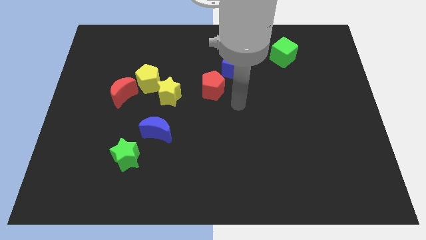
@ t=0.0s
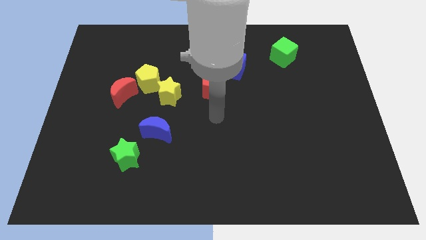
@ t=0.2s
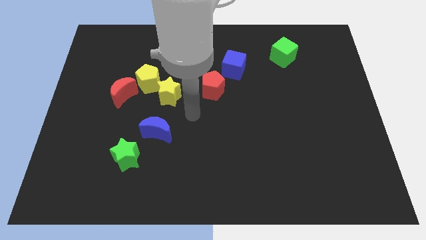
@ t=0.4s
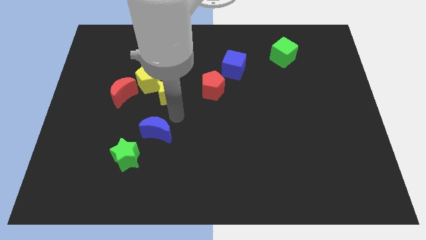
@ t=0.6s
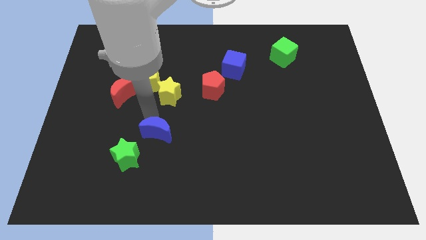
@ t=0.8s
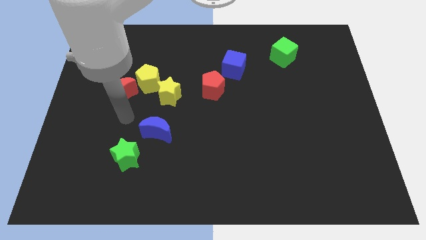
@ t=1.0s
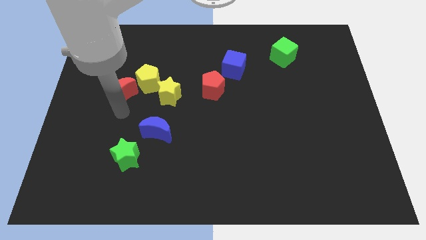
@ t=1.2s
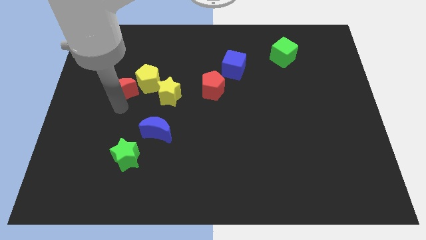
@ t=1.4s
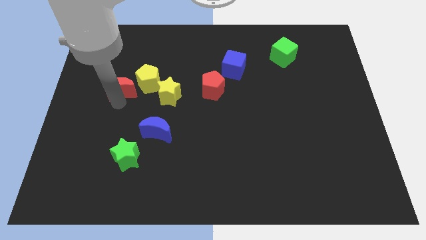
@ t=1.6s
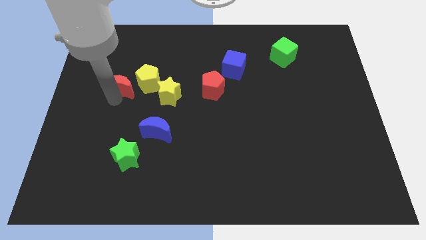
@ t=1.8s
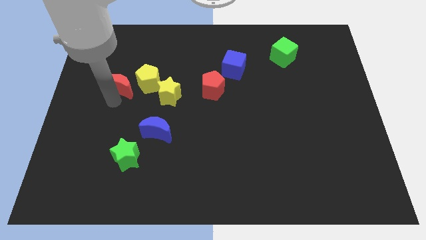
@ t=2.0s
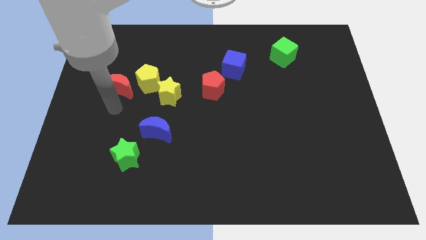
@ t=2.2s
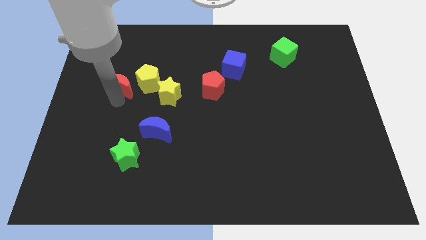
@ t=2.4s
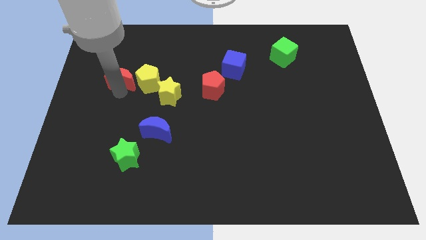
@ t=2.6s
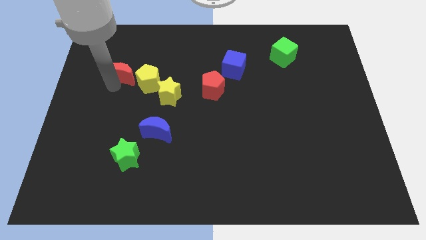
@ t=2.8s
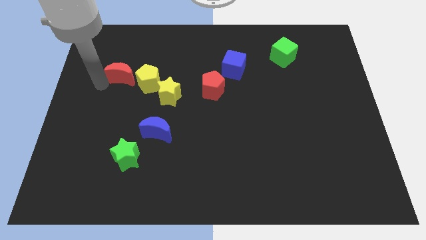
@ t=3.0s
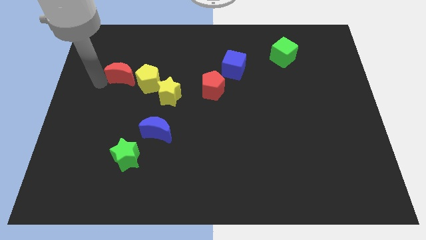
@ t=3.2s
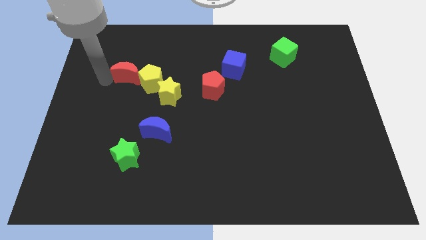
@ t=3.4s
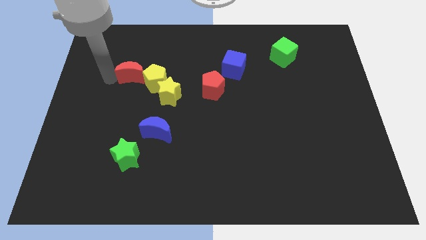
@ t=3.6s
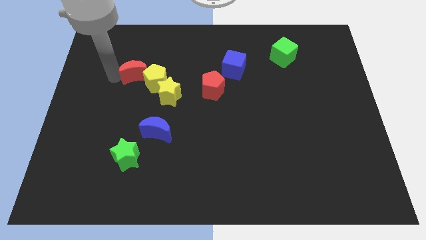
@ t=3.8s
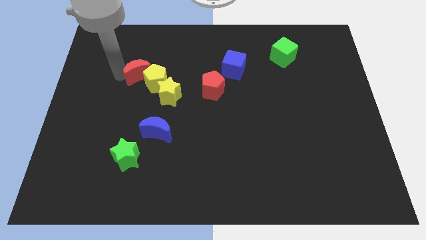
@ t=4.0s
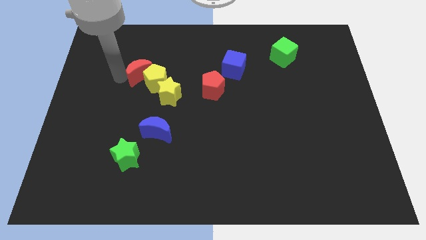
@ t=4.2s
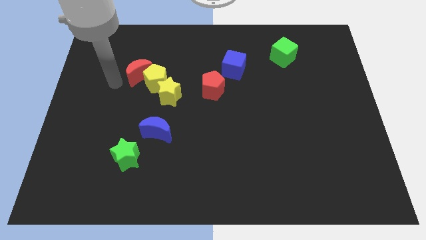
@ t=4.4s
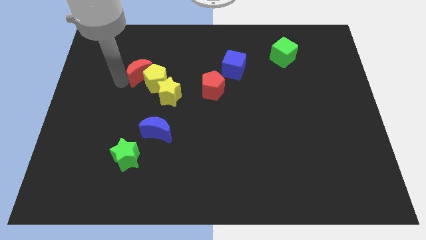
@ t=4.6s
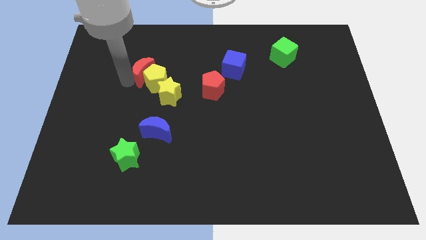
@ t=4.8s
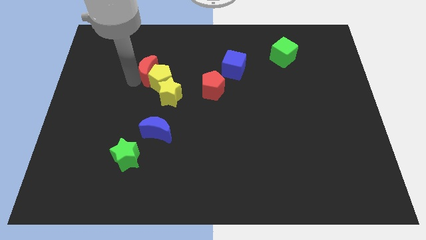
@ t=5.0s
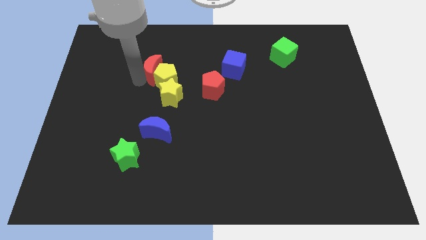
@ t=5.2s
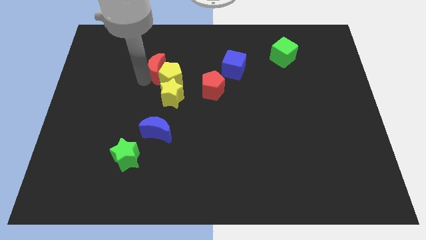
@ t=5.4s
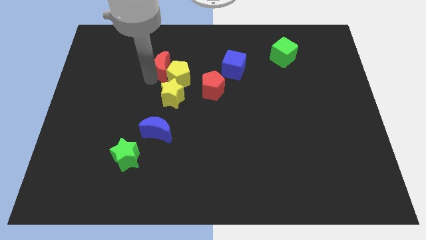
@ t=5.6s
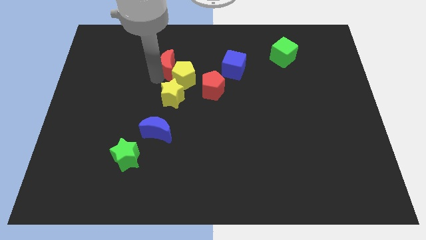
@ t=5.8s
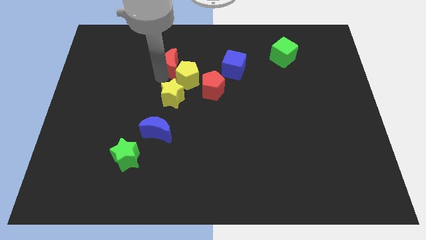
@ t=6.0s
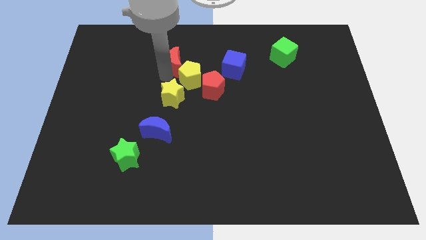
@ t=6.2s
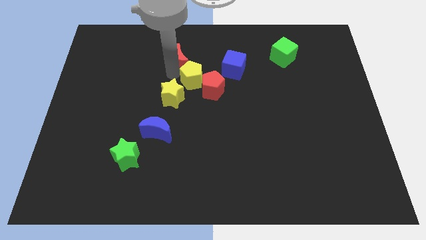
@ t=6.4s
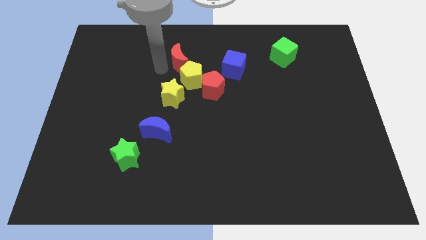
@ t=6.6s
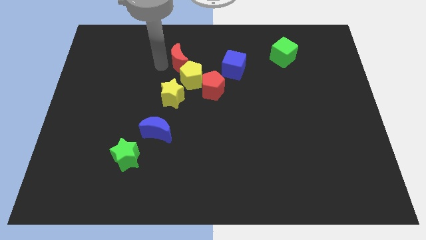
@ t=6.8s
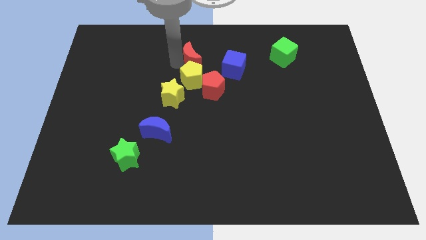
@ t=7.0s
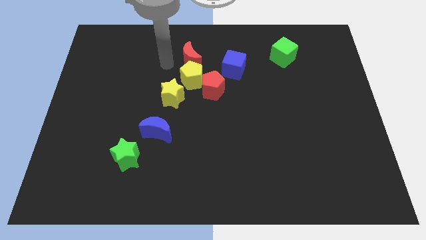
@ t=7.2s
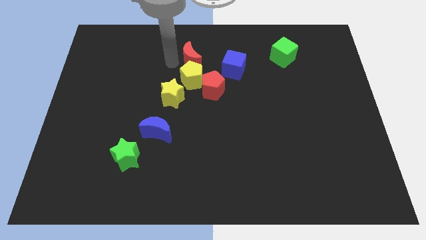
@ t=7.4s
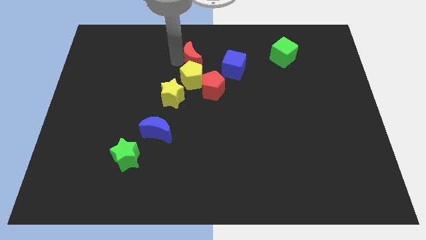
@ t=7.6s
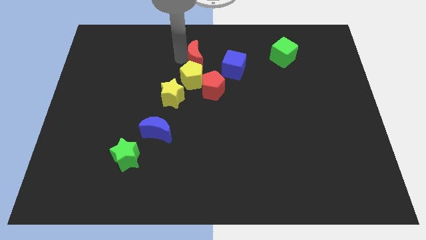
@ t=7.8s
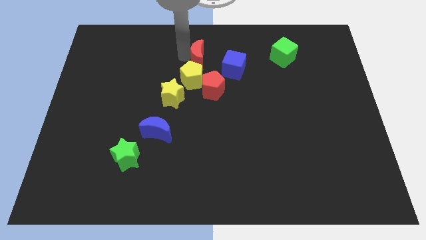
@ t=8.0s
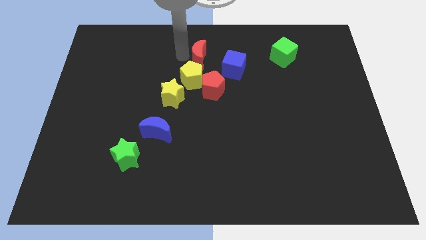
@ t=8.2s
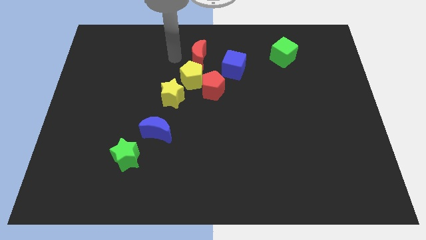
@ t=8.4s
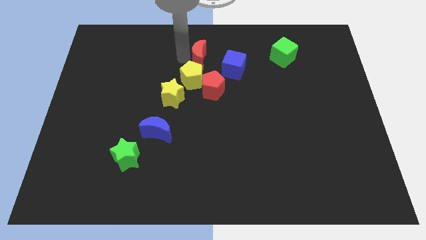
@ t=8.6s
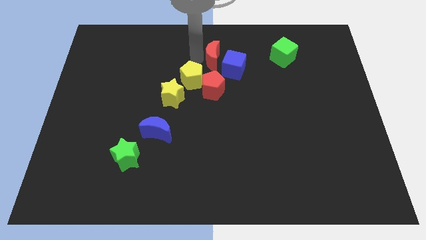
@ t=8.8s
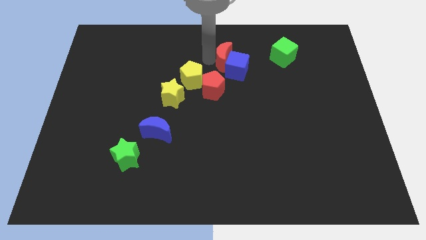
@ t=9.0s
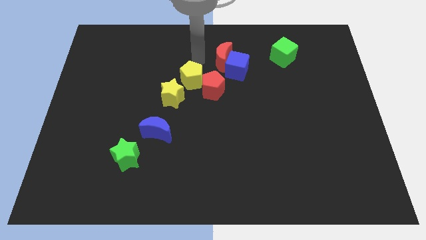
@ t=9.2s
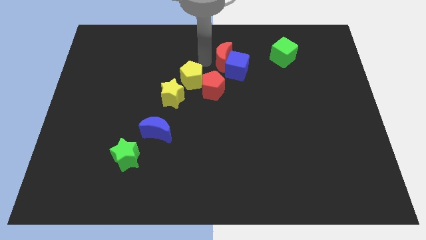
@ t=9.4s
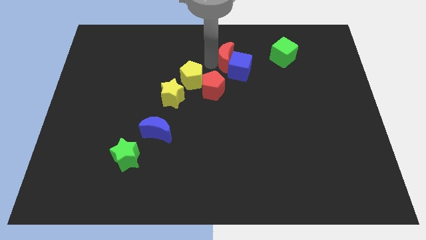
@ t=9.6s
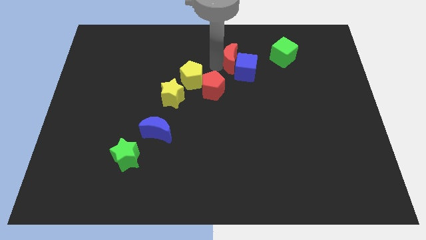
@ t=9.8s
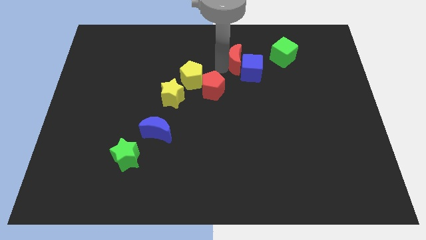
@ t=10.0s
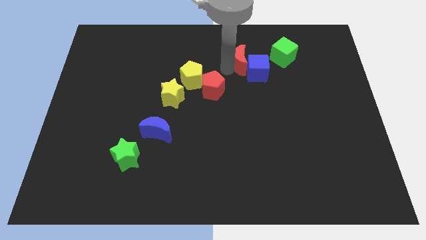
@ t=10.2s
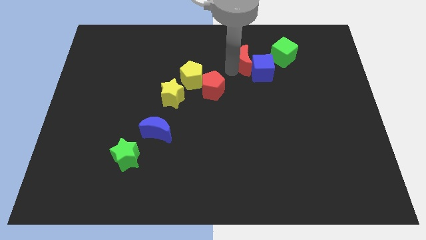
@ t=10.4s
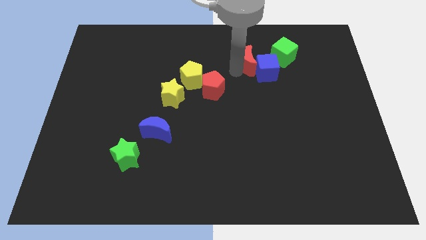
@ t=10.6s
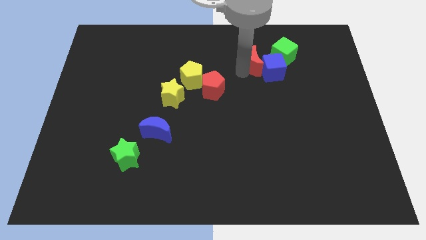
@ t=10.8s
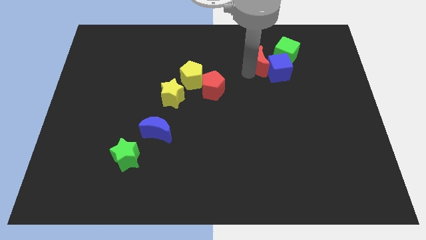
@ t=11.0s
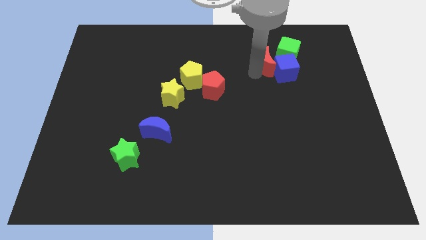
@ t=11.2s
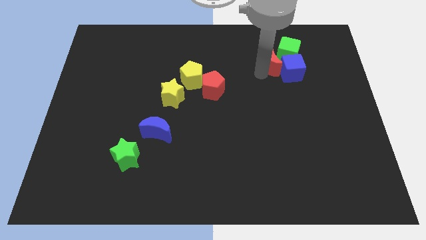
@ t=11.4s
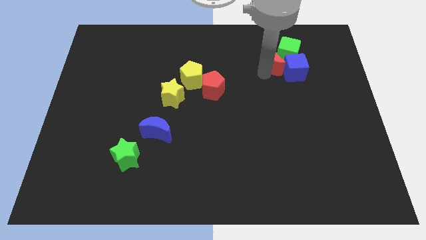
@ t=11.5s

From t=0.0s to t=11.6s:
put the red moon to the green cube

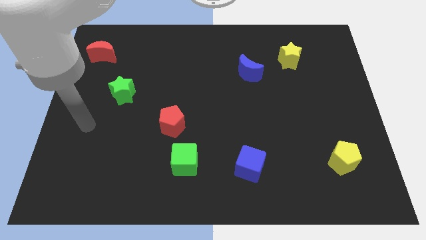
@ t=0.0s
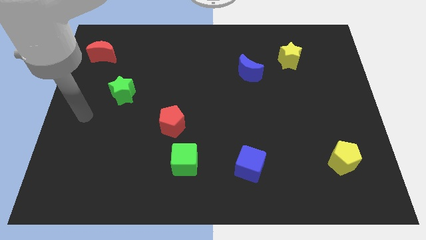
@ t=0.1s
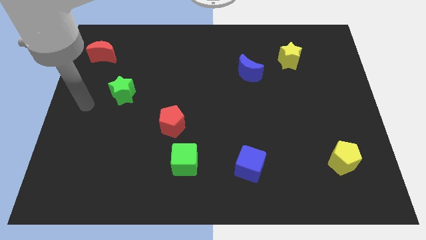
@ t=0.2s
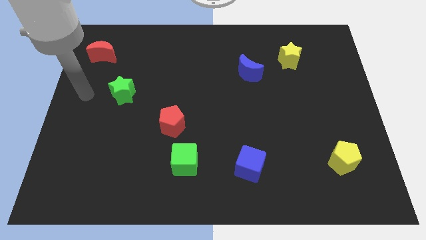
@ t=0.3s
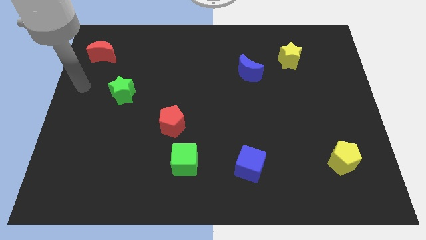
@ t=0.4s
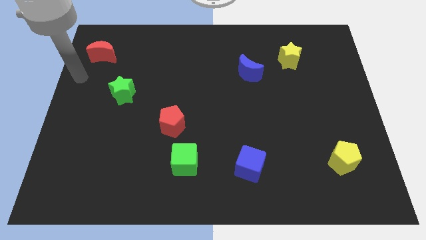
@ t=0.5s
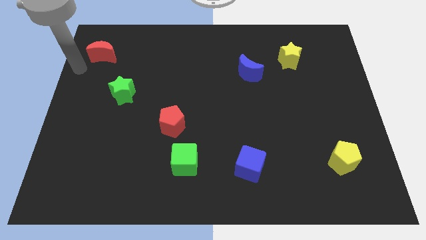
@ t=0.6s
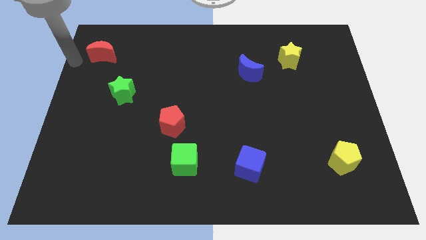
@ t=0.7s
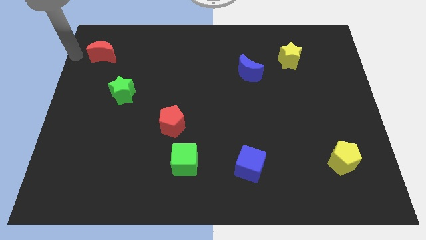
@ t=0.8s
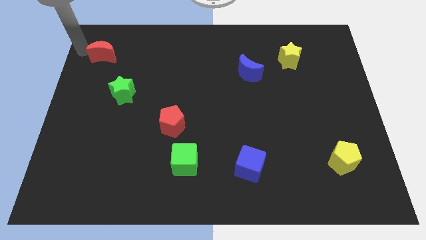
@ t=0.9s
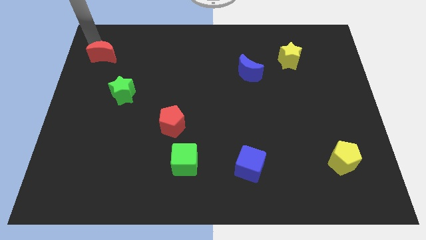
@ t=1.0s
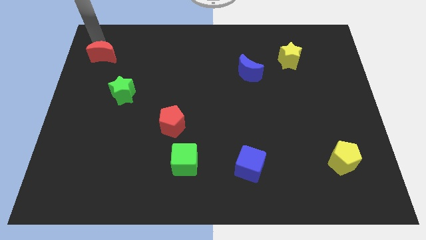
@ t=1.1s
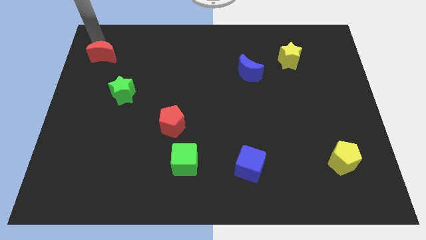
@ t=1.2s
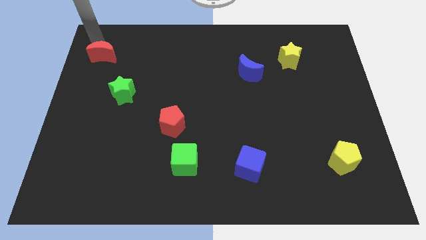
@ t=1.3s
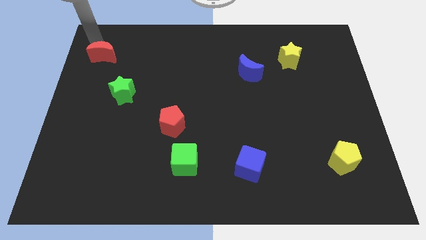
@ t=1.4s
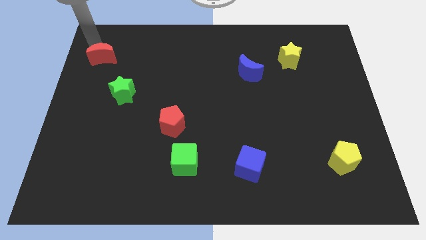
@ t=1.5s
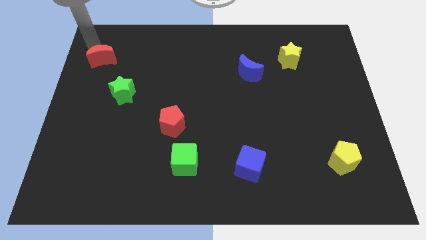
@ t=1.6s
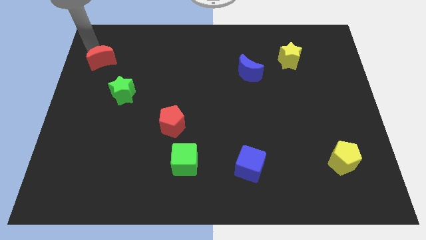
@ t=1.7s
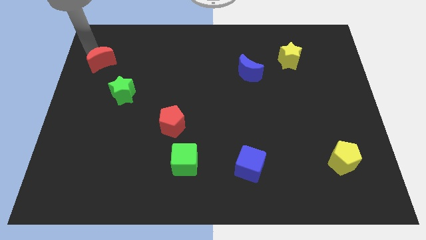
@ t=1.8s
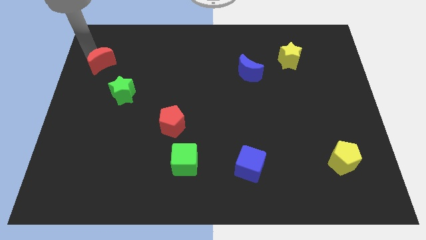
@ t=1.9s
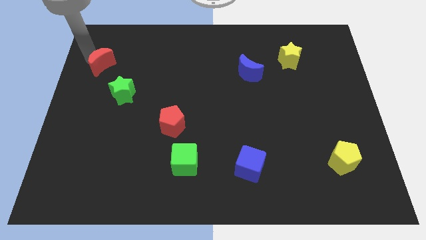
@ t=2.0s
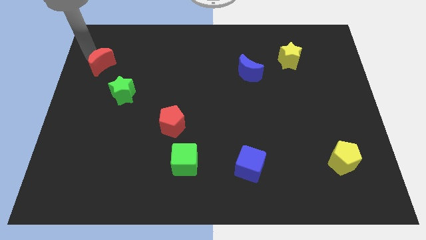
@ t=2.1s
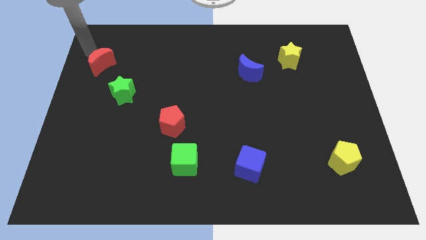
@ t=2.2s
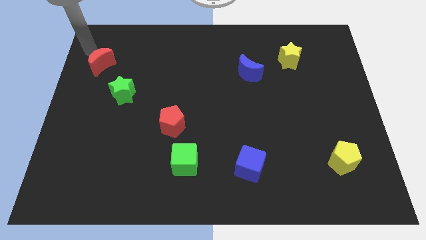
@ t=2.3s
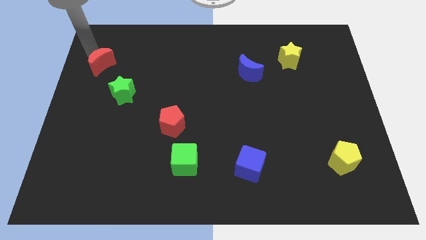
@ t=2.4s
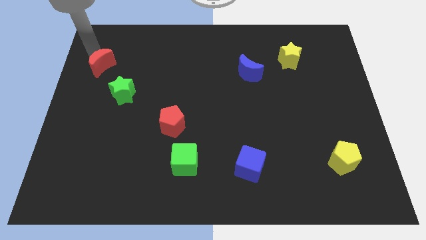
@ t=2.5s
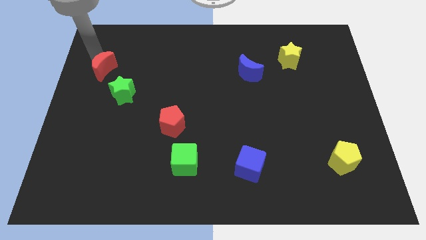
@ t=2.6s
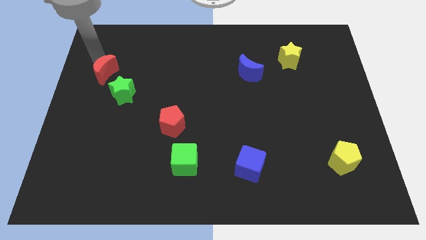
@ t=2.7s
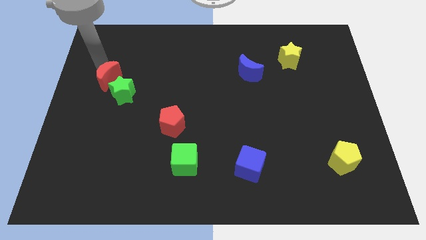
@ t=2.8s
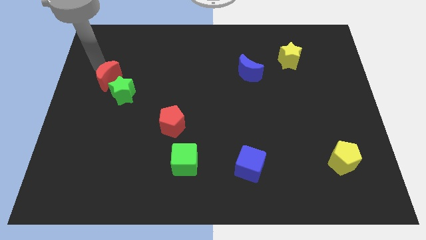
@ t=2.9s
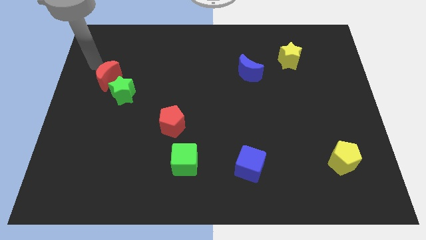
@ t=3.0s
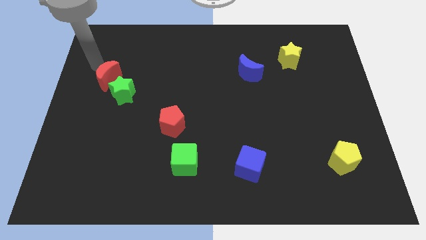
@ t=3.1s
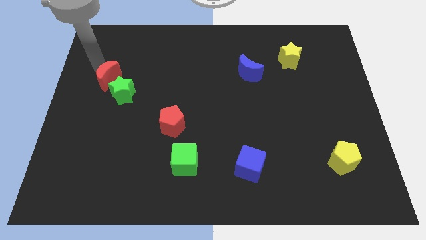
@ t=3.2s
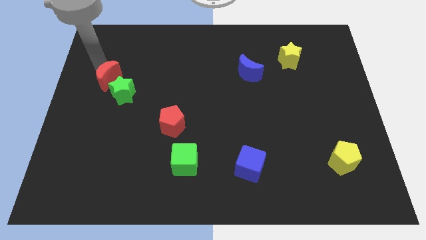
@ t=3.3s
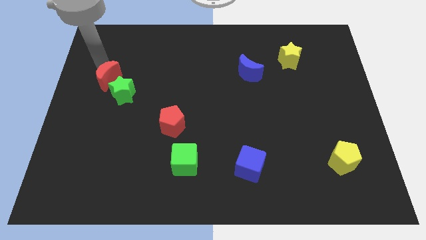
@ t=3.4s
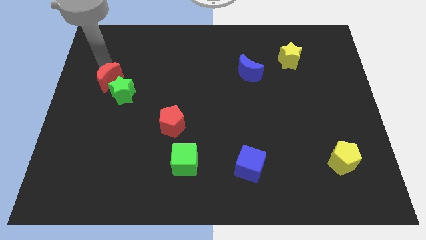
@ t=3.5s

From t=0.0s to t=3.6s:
slide the red moon next to the green star
